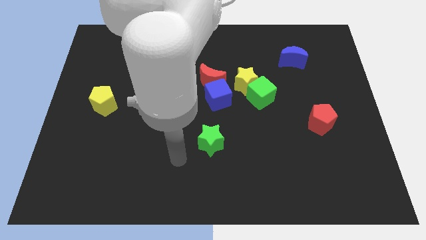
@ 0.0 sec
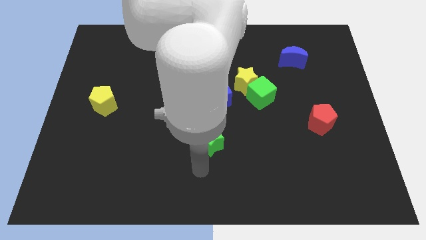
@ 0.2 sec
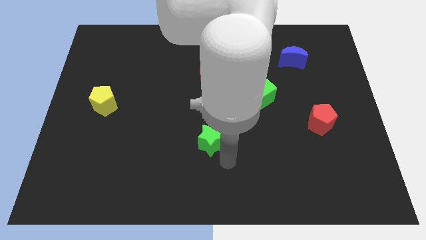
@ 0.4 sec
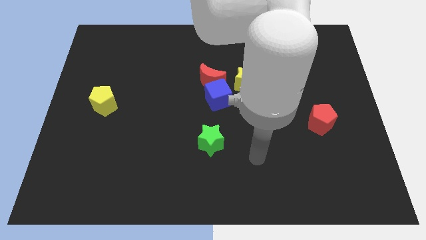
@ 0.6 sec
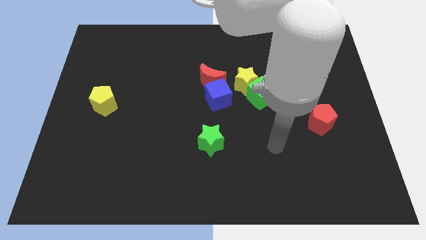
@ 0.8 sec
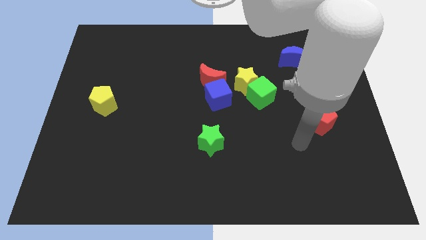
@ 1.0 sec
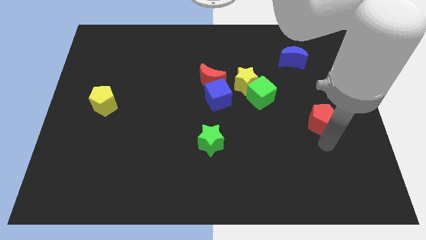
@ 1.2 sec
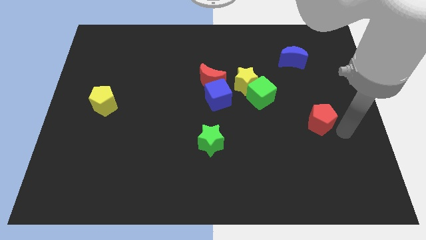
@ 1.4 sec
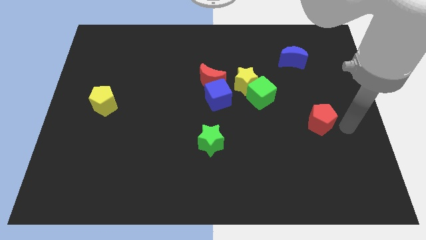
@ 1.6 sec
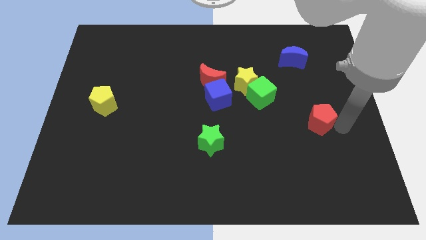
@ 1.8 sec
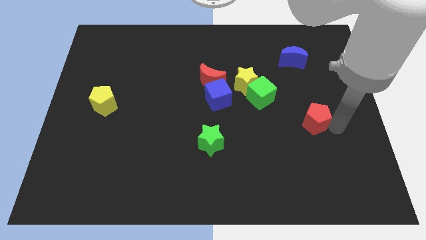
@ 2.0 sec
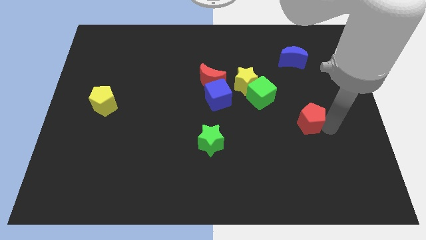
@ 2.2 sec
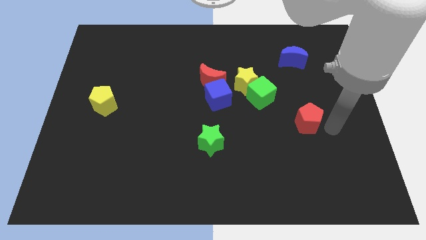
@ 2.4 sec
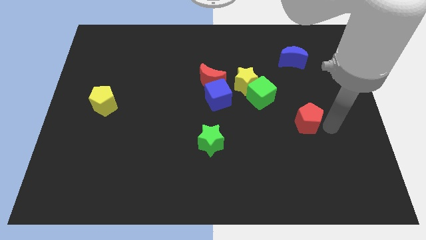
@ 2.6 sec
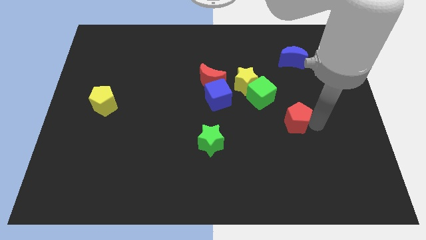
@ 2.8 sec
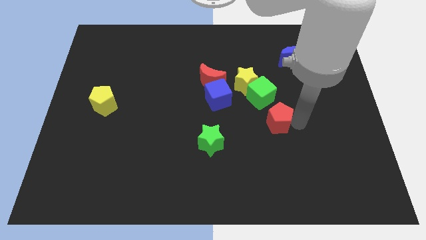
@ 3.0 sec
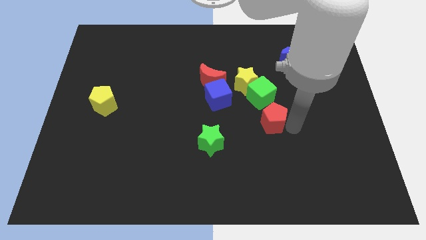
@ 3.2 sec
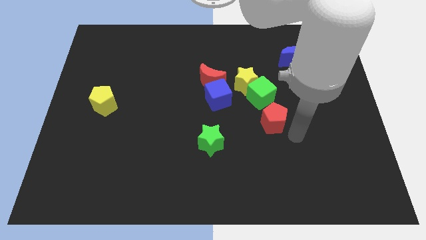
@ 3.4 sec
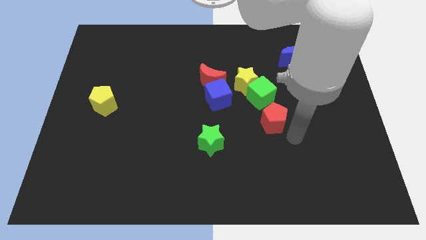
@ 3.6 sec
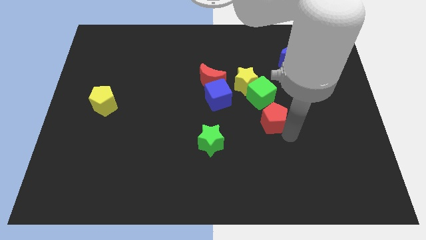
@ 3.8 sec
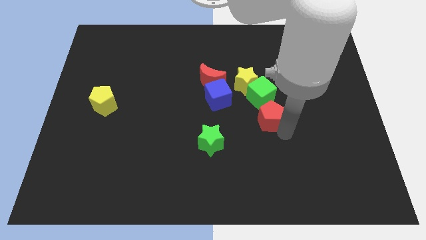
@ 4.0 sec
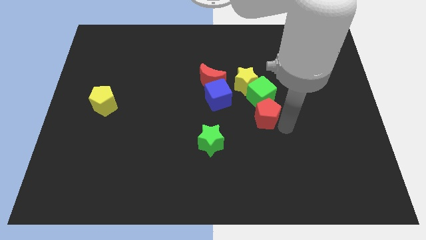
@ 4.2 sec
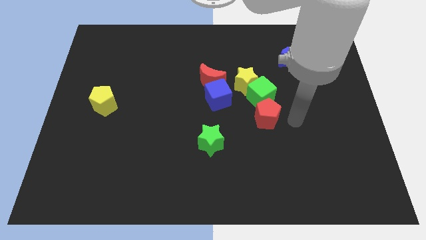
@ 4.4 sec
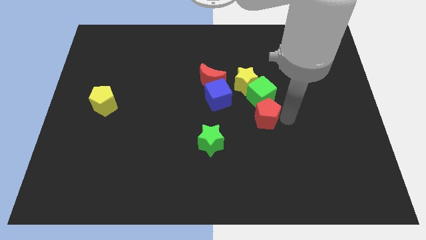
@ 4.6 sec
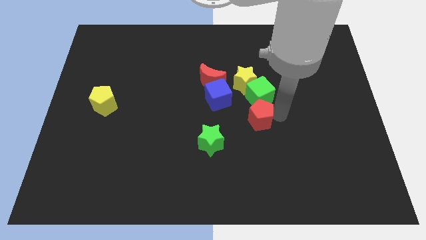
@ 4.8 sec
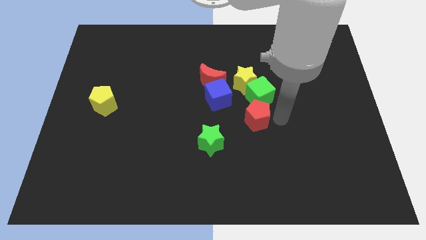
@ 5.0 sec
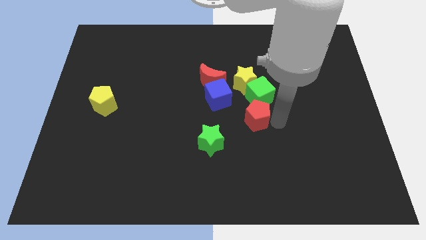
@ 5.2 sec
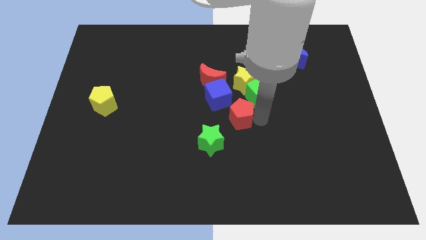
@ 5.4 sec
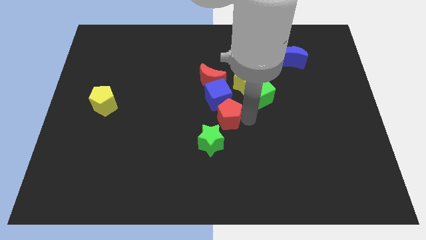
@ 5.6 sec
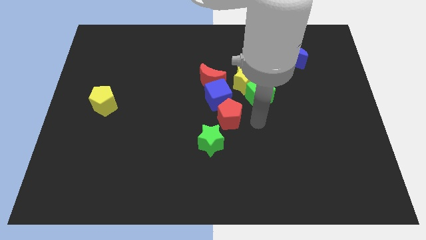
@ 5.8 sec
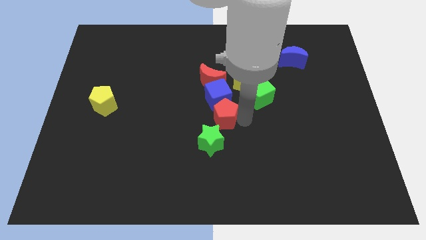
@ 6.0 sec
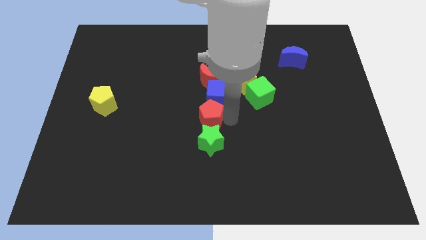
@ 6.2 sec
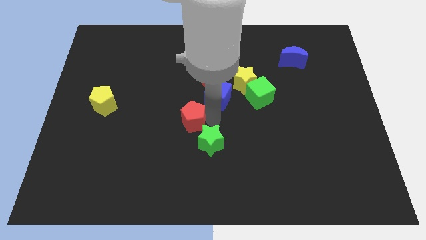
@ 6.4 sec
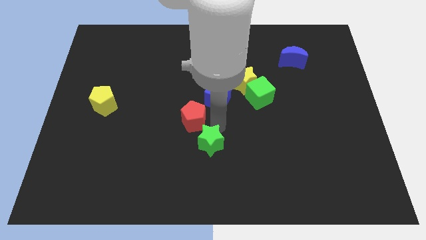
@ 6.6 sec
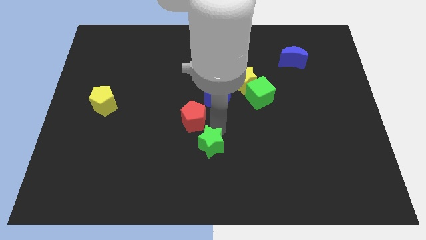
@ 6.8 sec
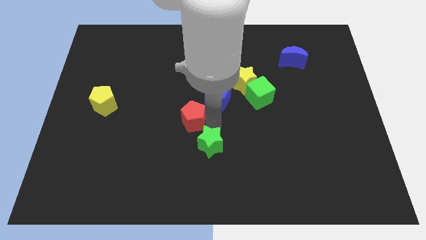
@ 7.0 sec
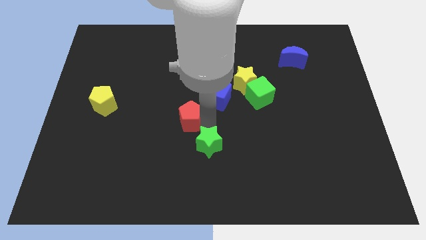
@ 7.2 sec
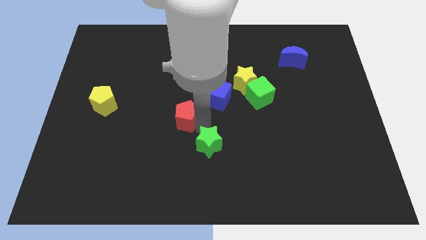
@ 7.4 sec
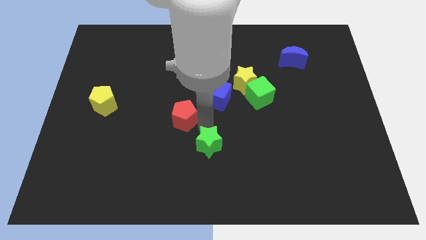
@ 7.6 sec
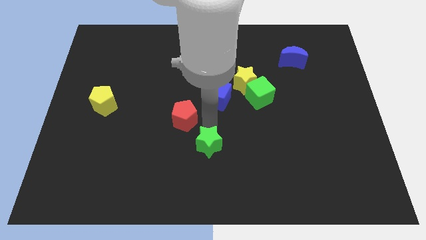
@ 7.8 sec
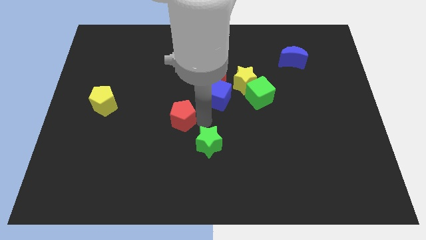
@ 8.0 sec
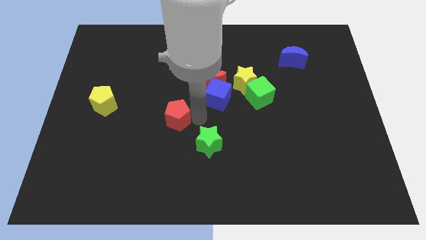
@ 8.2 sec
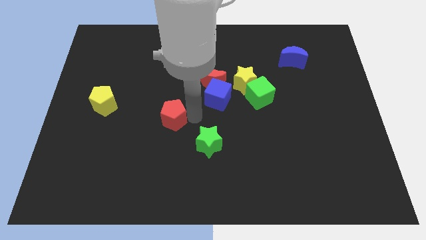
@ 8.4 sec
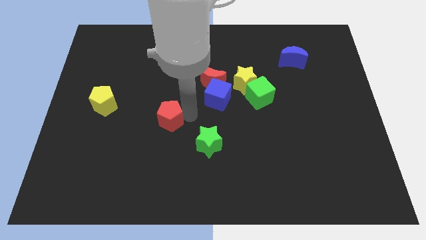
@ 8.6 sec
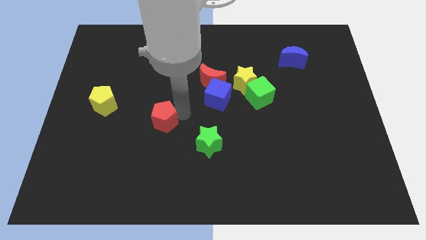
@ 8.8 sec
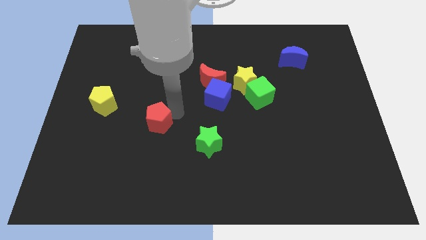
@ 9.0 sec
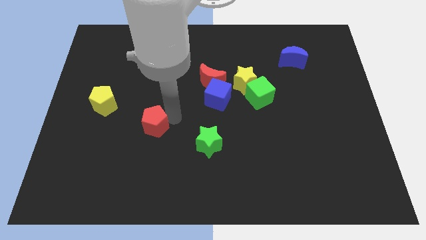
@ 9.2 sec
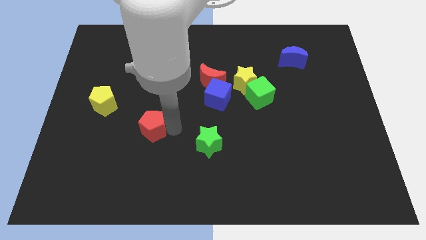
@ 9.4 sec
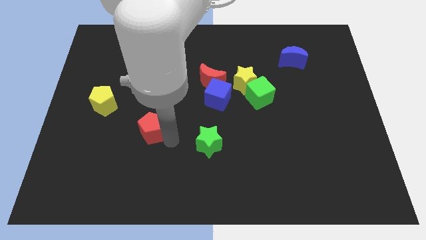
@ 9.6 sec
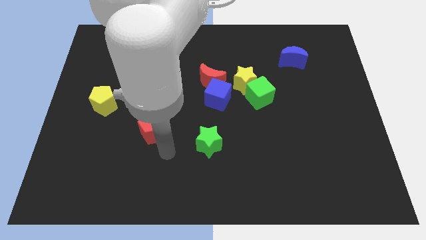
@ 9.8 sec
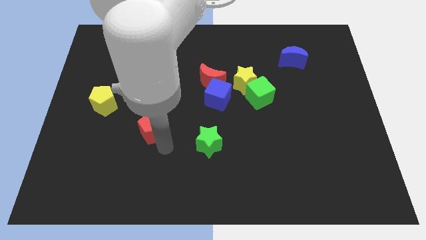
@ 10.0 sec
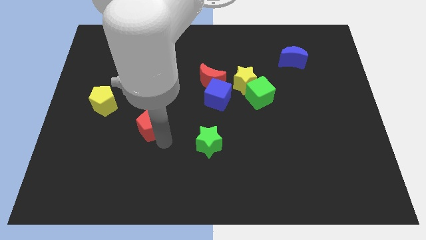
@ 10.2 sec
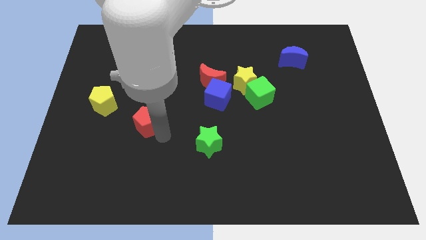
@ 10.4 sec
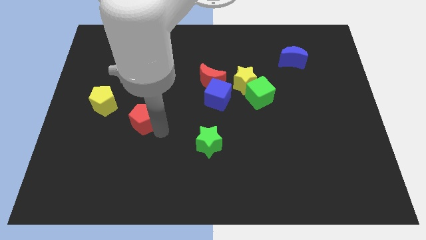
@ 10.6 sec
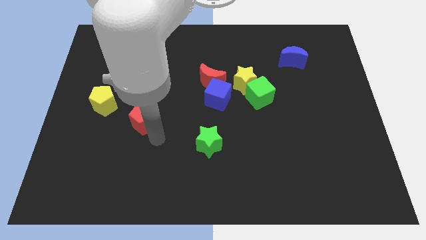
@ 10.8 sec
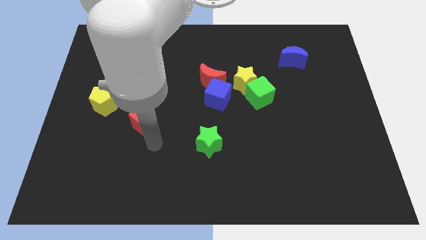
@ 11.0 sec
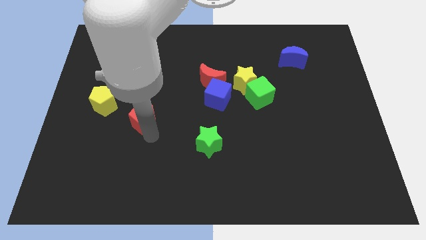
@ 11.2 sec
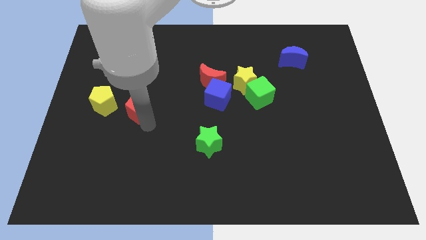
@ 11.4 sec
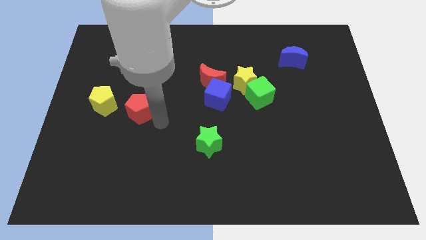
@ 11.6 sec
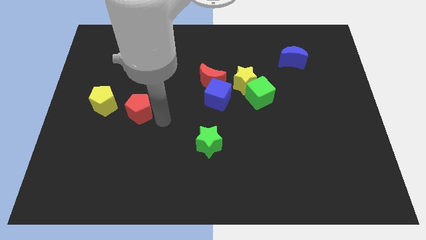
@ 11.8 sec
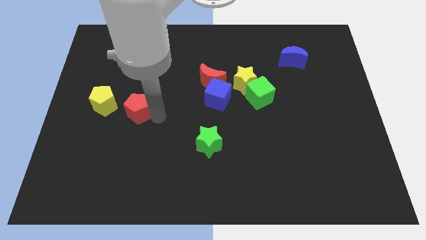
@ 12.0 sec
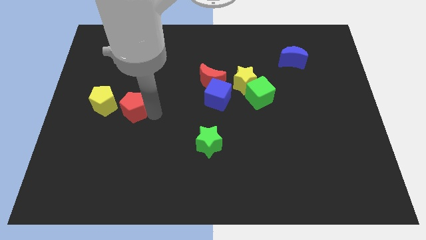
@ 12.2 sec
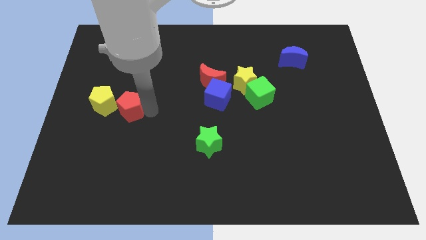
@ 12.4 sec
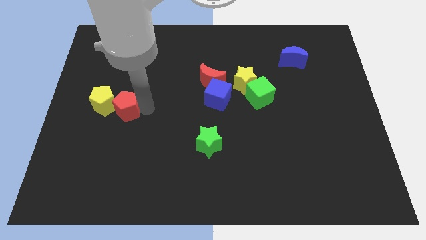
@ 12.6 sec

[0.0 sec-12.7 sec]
slide the red pentagon towards the yellow pentagon
